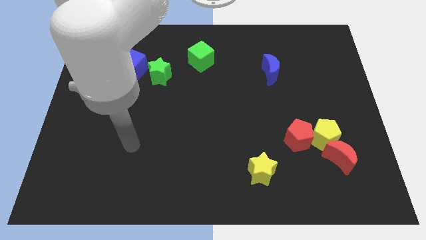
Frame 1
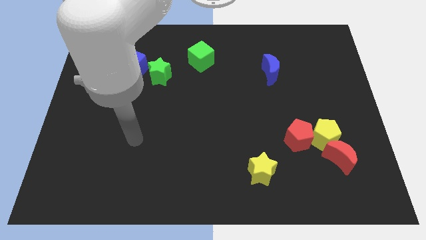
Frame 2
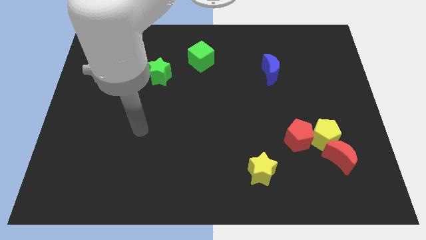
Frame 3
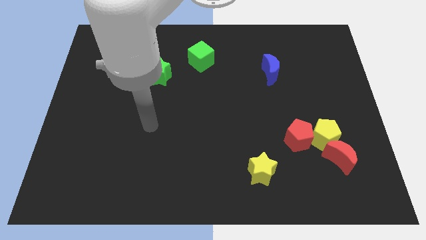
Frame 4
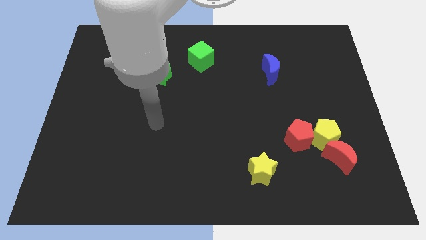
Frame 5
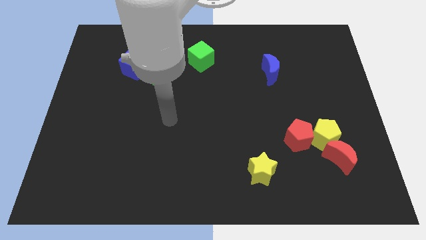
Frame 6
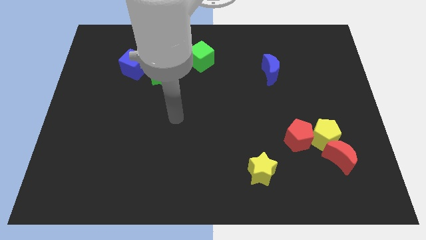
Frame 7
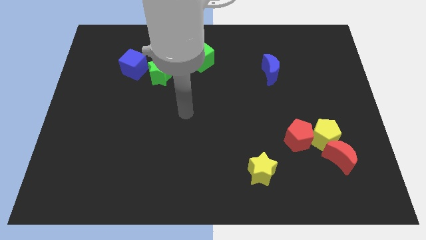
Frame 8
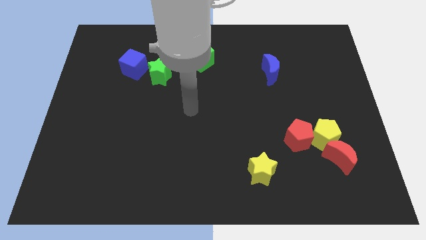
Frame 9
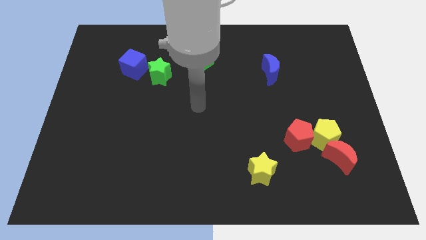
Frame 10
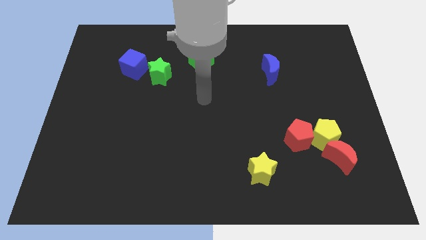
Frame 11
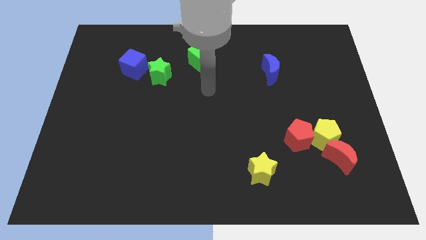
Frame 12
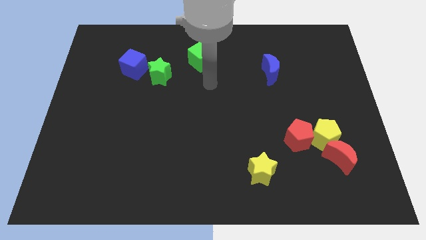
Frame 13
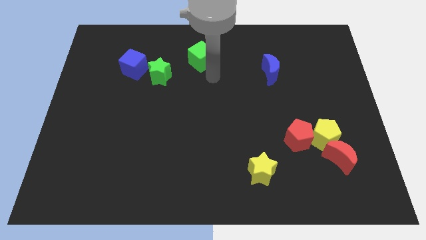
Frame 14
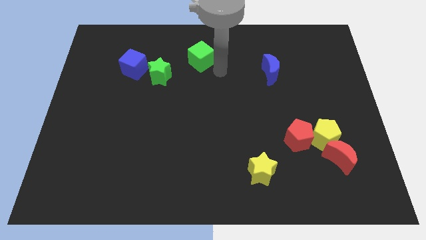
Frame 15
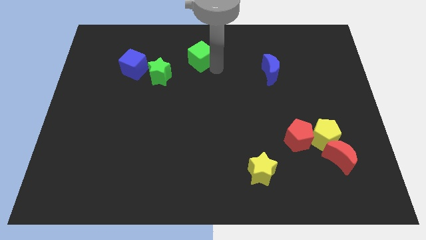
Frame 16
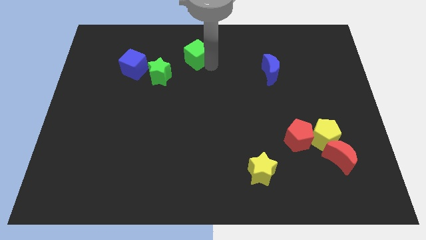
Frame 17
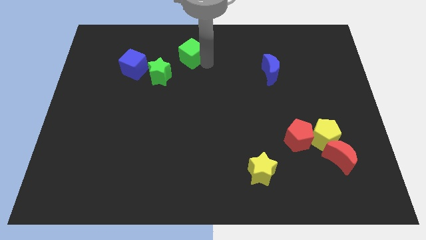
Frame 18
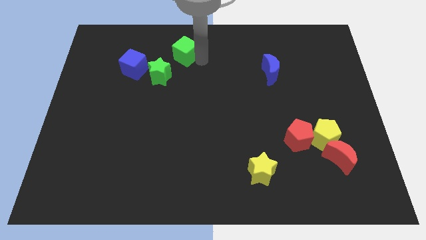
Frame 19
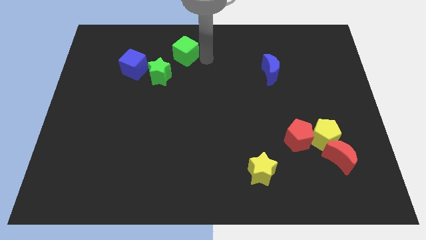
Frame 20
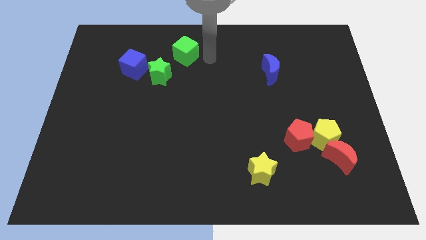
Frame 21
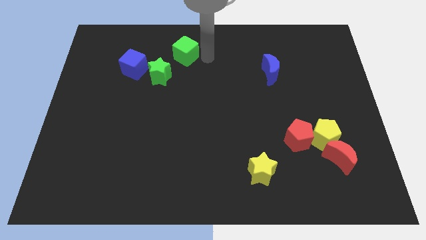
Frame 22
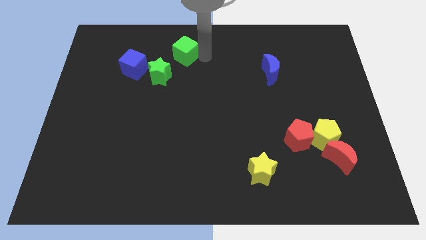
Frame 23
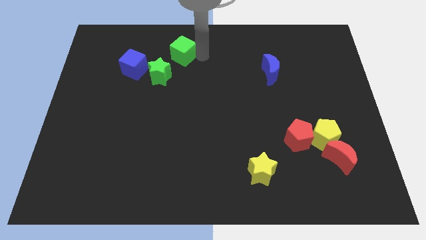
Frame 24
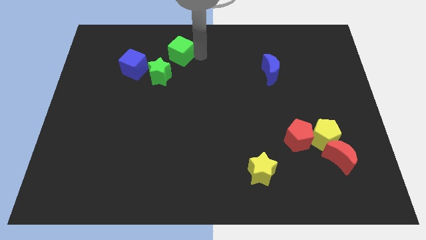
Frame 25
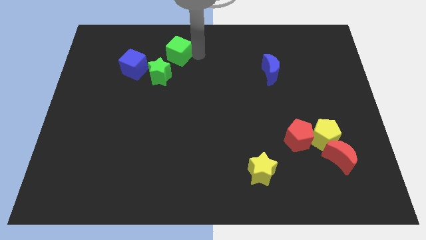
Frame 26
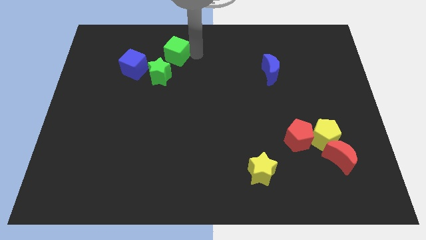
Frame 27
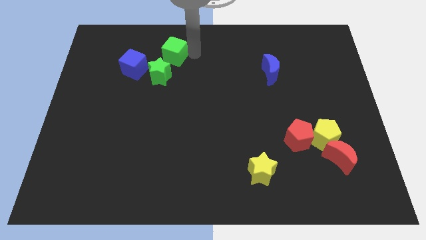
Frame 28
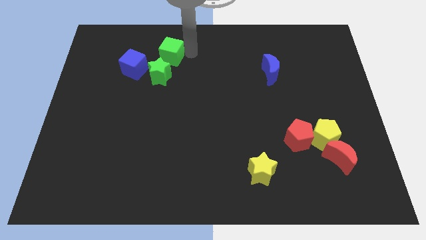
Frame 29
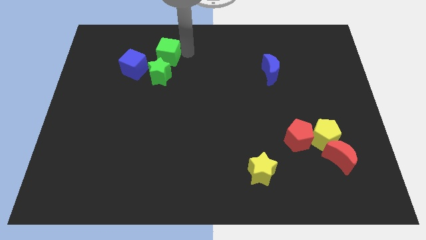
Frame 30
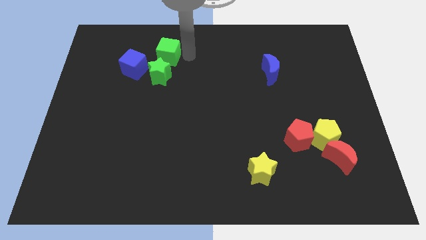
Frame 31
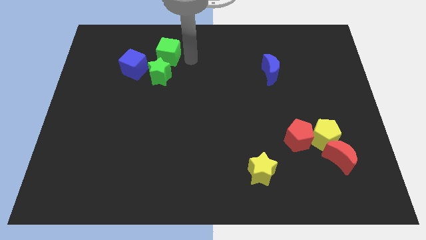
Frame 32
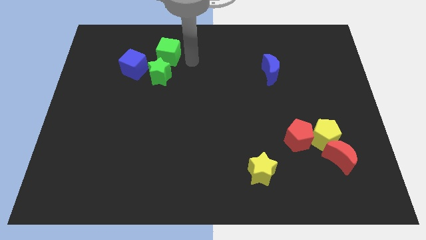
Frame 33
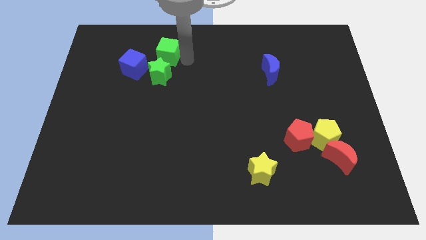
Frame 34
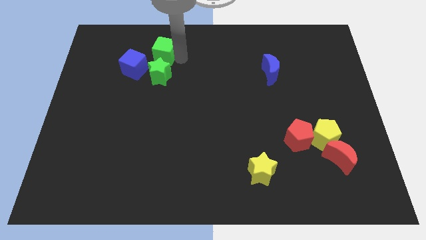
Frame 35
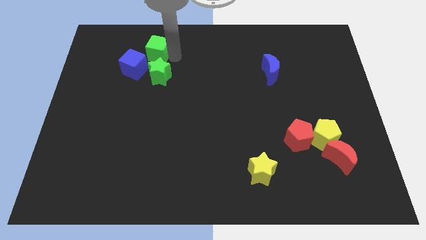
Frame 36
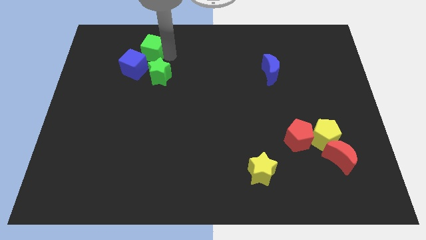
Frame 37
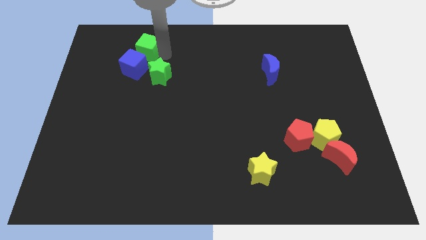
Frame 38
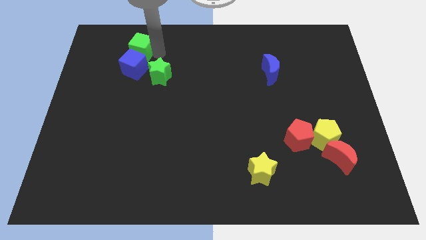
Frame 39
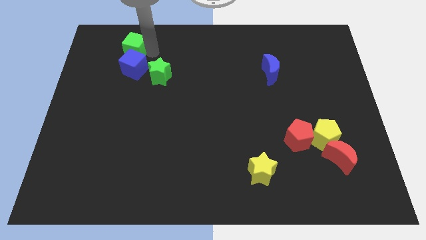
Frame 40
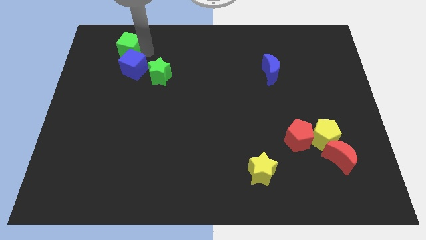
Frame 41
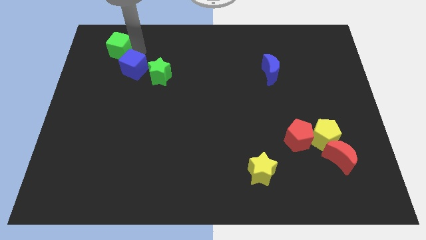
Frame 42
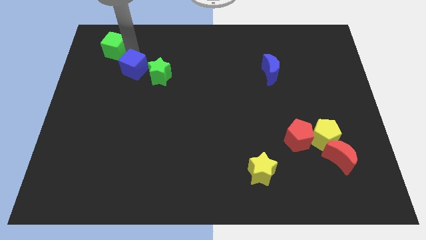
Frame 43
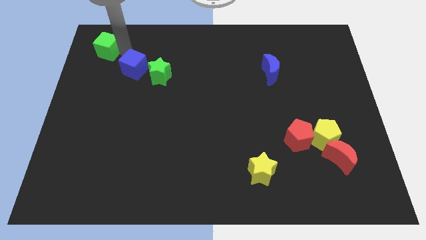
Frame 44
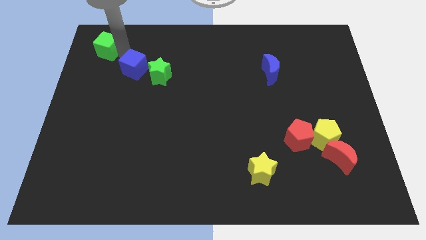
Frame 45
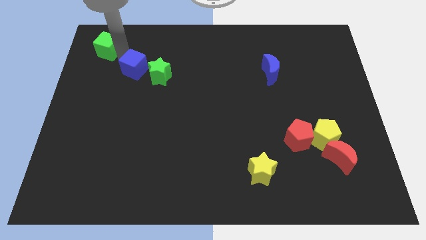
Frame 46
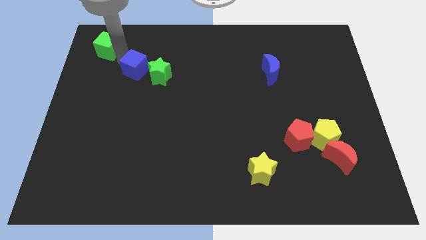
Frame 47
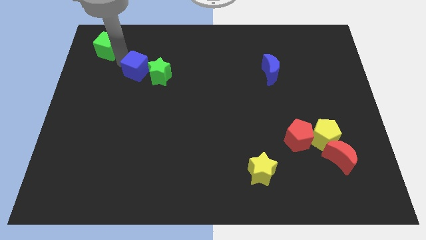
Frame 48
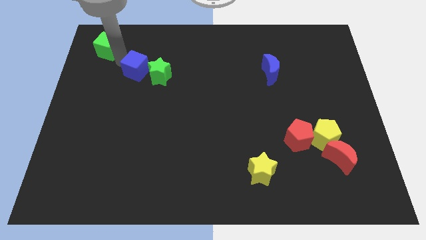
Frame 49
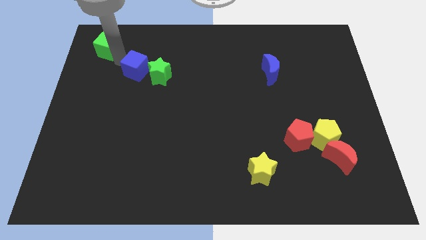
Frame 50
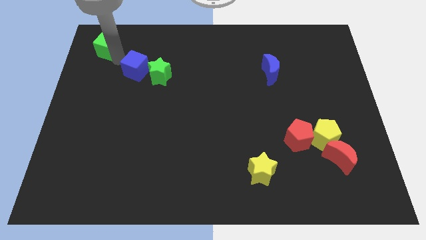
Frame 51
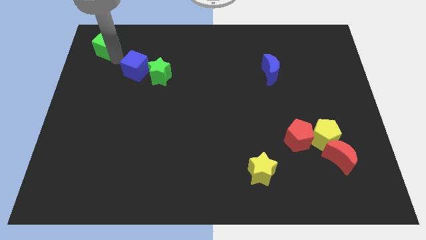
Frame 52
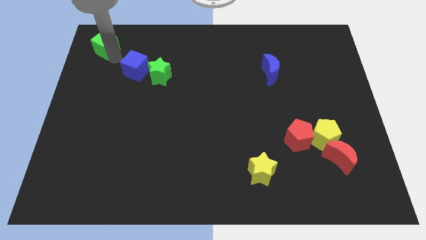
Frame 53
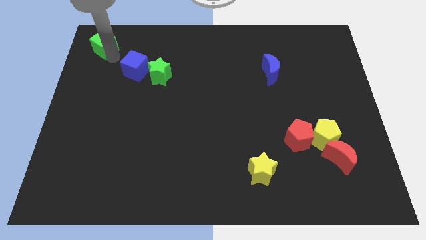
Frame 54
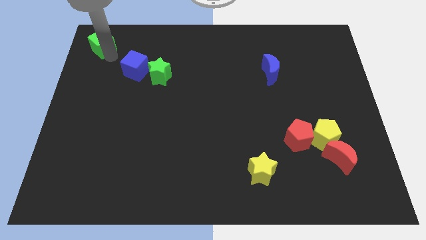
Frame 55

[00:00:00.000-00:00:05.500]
move the green cube to the top left corner

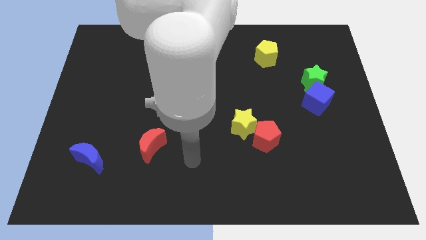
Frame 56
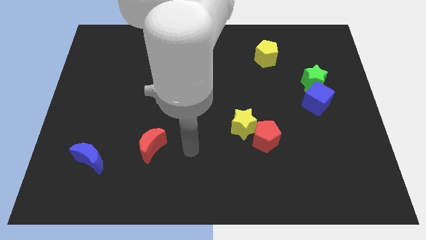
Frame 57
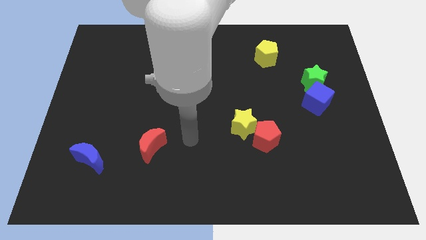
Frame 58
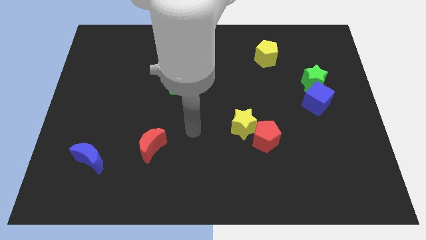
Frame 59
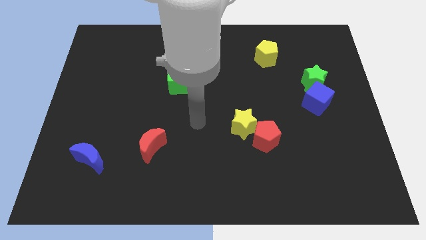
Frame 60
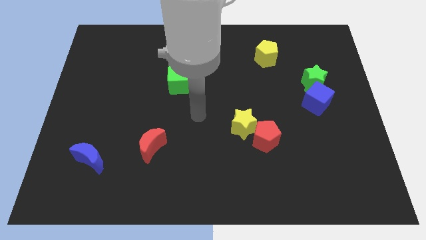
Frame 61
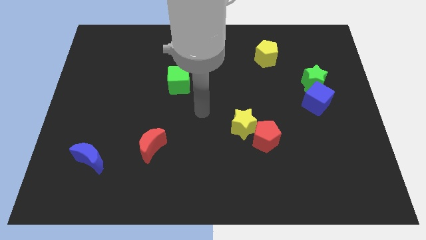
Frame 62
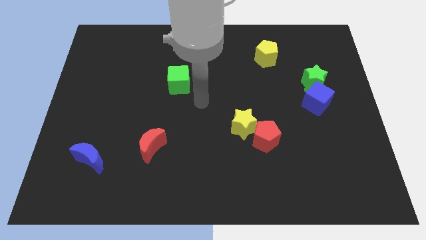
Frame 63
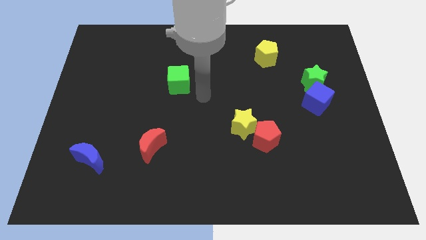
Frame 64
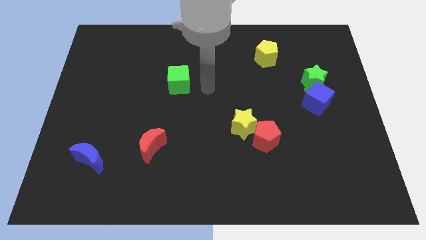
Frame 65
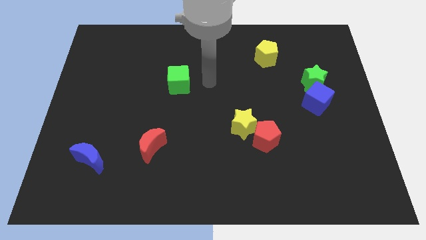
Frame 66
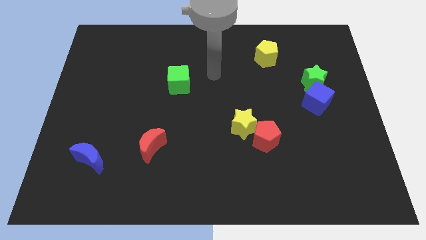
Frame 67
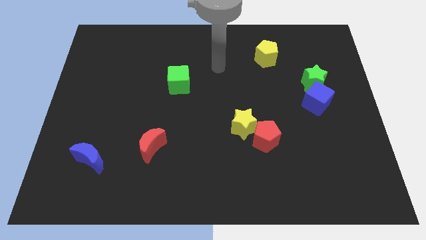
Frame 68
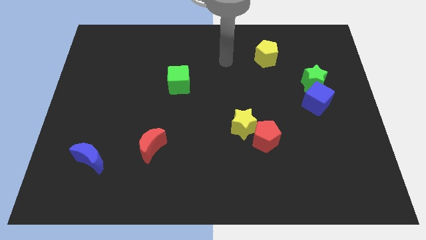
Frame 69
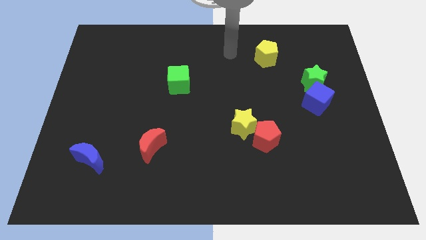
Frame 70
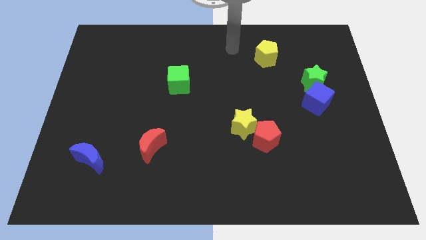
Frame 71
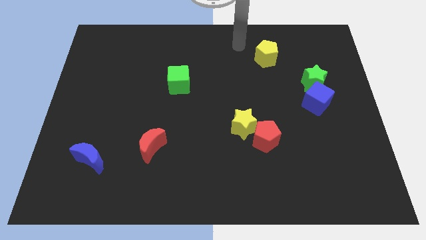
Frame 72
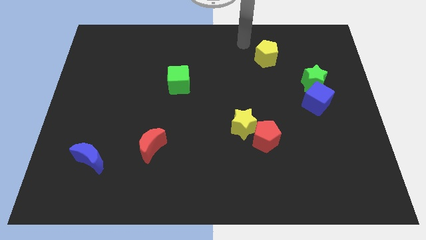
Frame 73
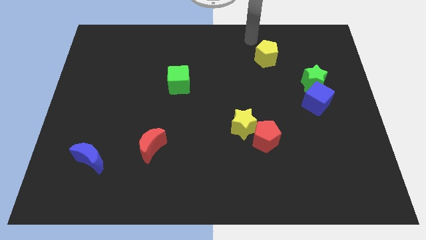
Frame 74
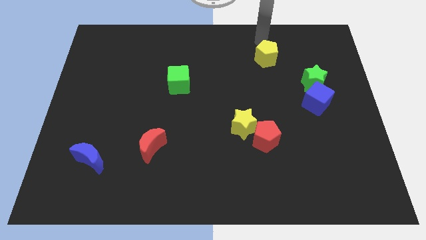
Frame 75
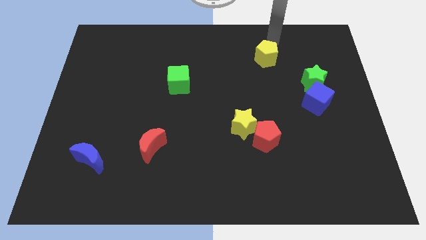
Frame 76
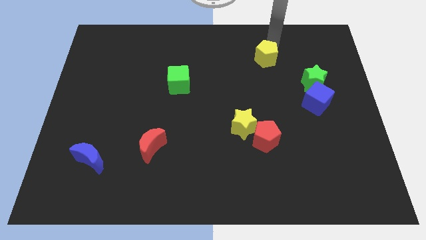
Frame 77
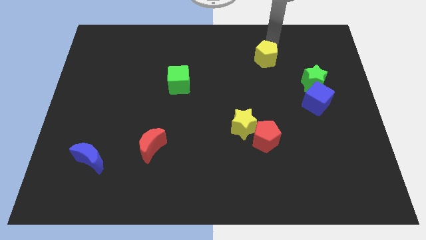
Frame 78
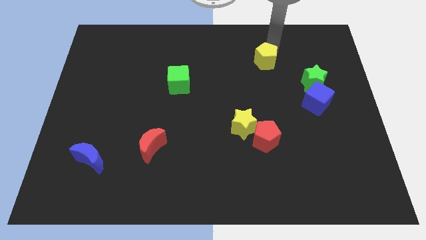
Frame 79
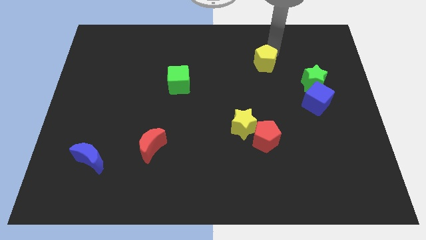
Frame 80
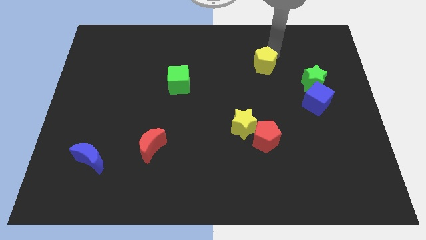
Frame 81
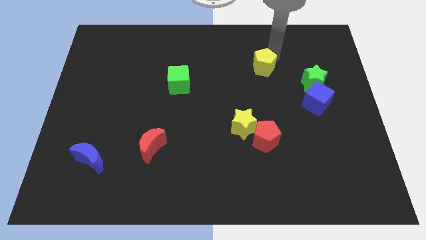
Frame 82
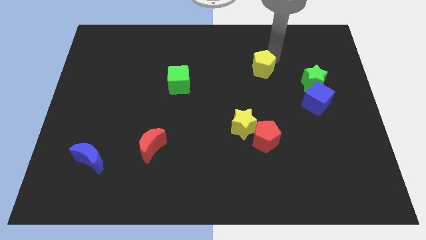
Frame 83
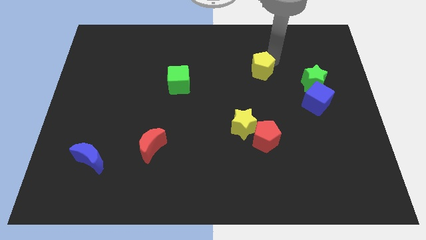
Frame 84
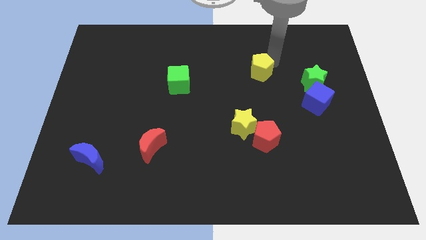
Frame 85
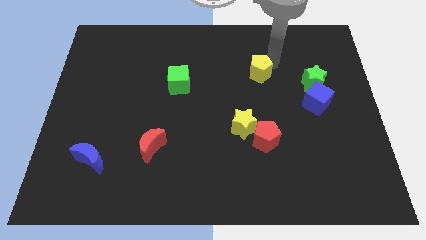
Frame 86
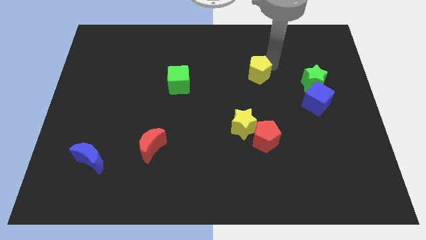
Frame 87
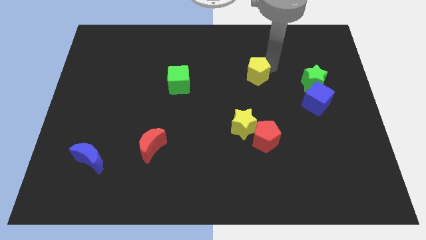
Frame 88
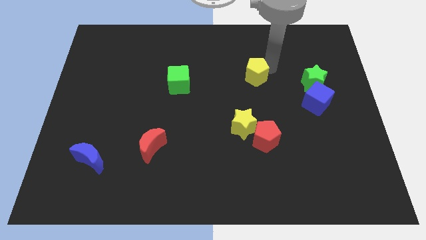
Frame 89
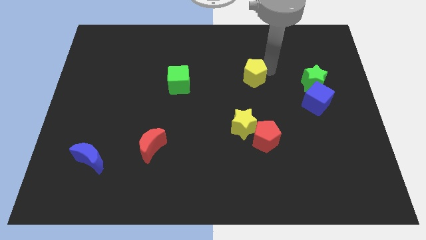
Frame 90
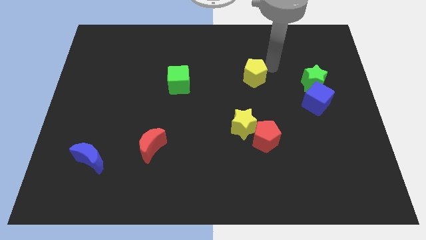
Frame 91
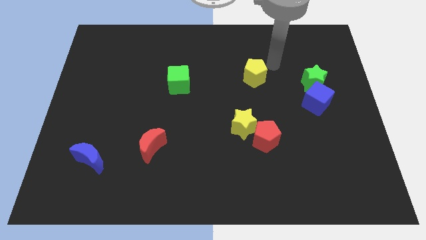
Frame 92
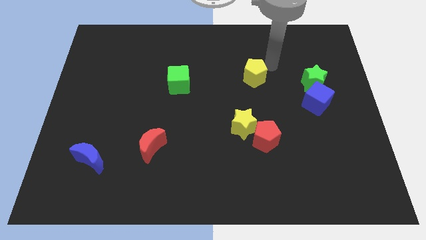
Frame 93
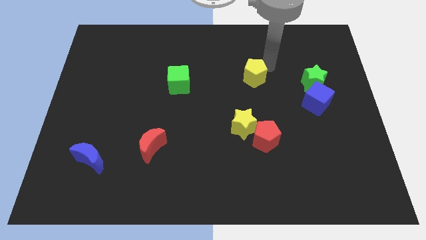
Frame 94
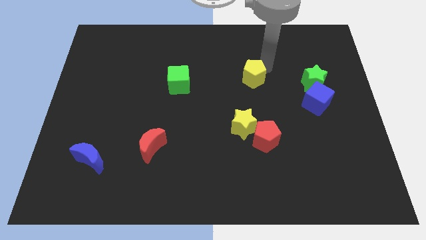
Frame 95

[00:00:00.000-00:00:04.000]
move the yellow pentagon to the center of the board
